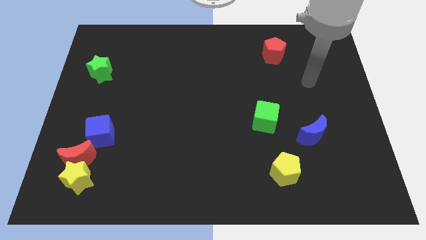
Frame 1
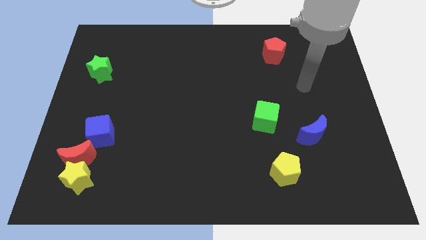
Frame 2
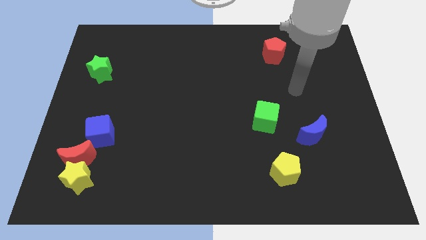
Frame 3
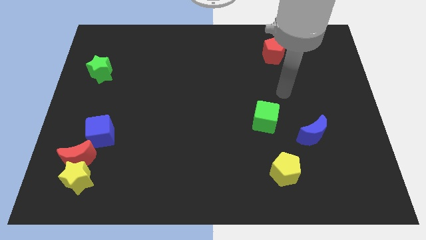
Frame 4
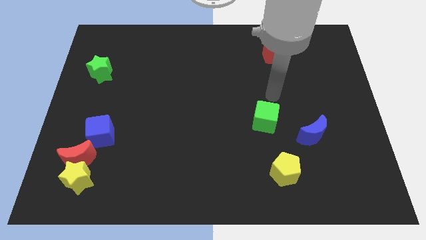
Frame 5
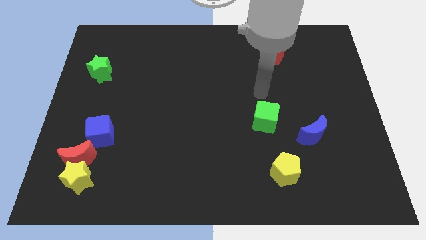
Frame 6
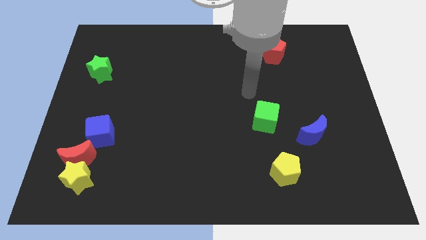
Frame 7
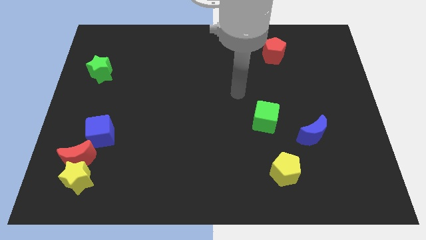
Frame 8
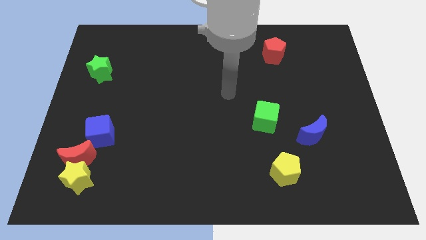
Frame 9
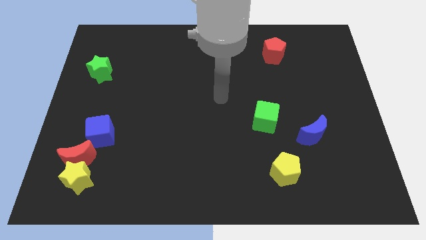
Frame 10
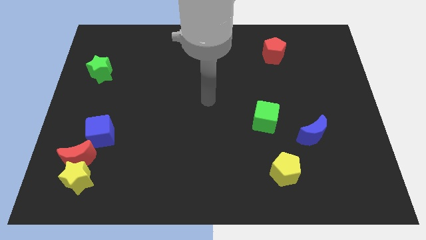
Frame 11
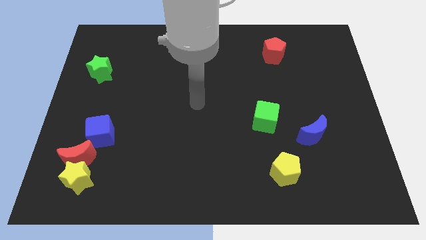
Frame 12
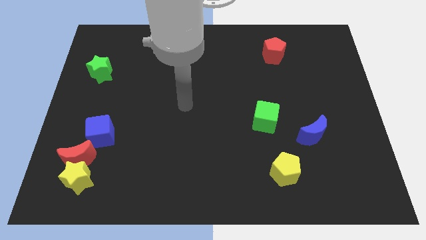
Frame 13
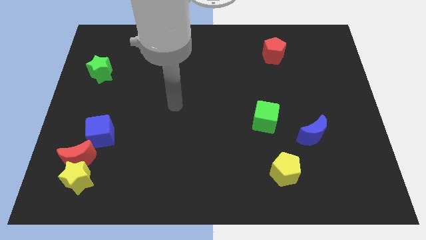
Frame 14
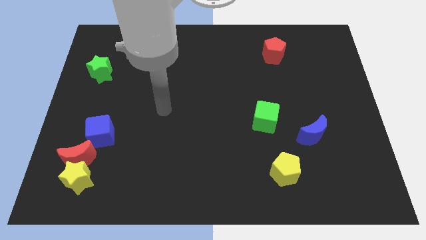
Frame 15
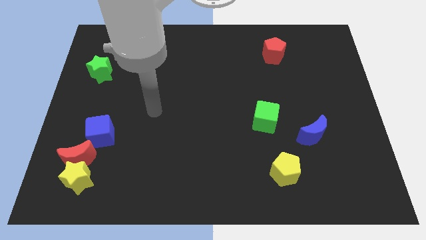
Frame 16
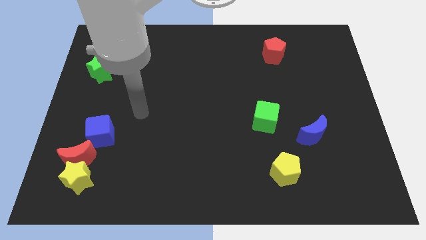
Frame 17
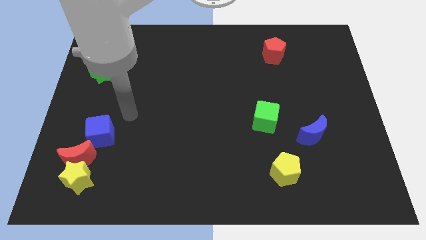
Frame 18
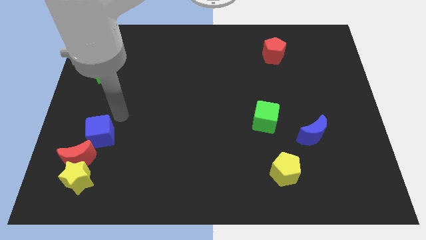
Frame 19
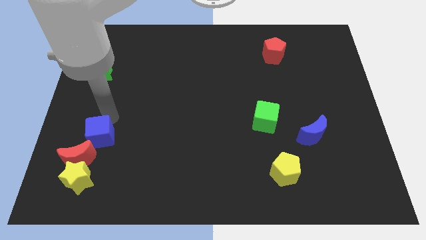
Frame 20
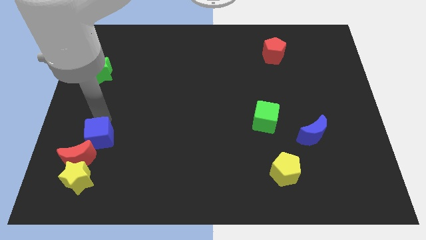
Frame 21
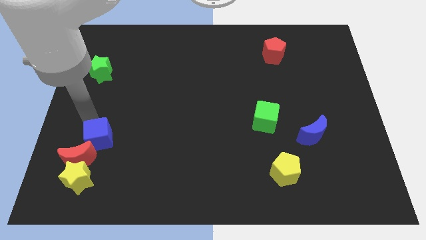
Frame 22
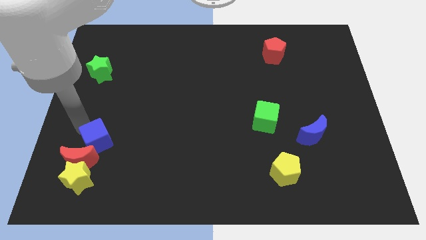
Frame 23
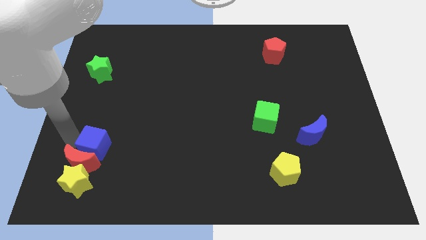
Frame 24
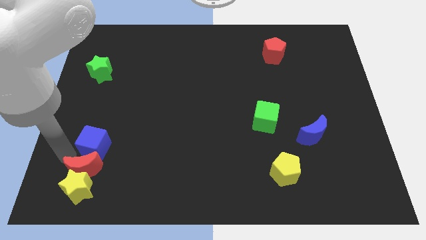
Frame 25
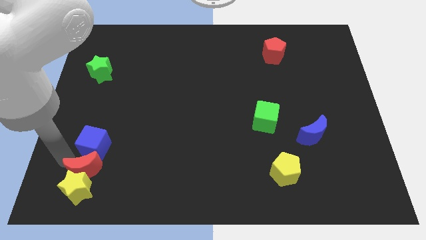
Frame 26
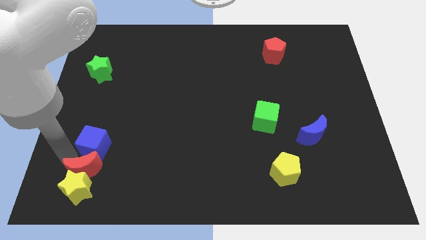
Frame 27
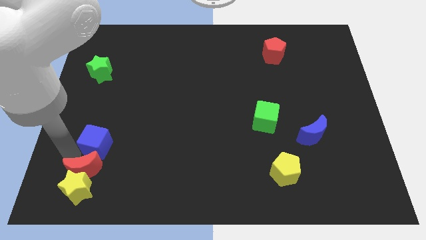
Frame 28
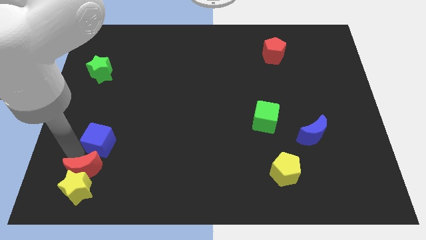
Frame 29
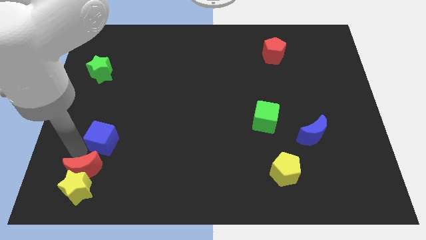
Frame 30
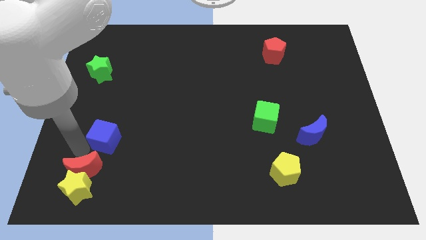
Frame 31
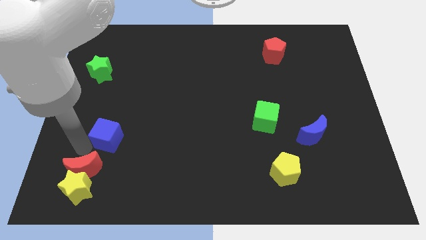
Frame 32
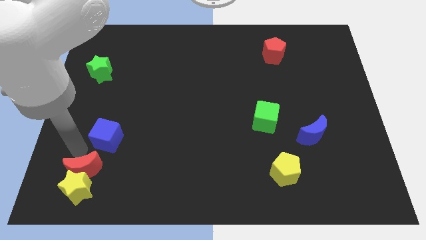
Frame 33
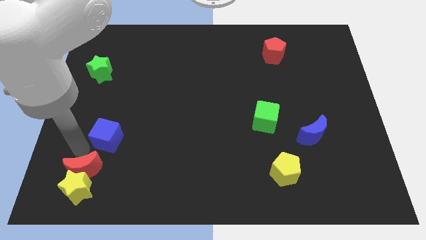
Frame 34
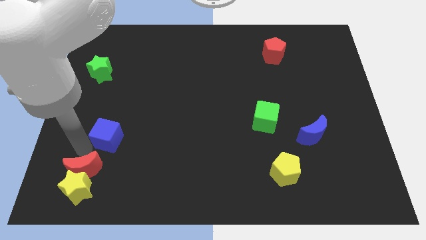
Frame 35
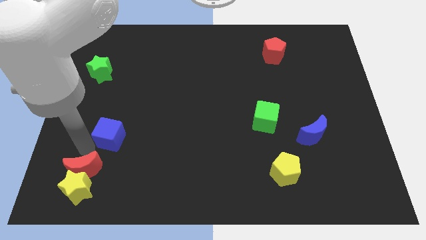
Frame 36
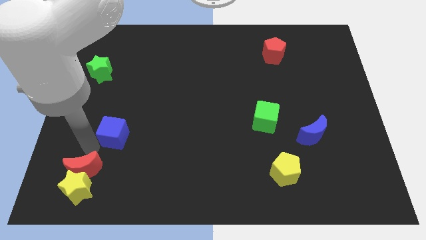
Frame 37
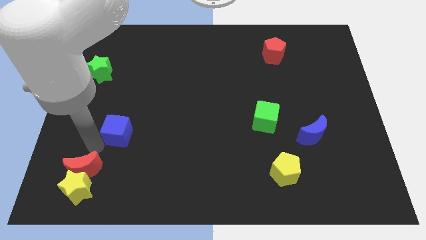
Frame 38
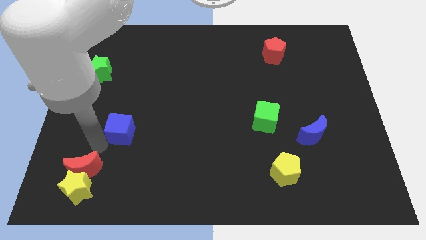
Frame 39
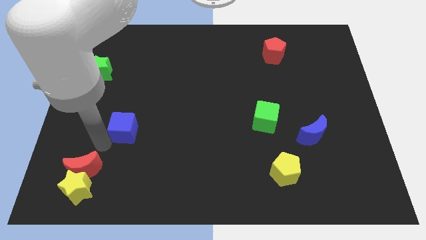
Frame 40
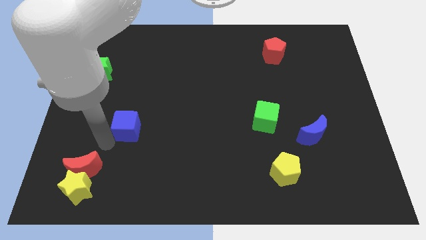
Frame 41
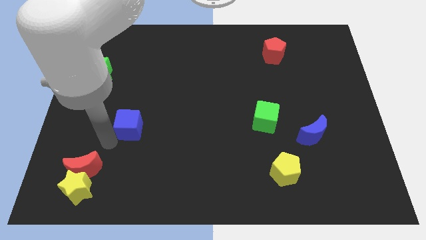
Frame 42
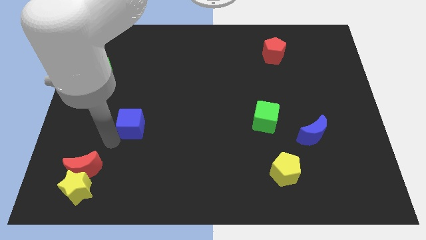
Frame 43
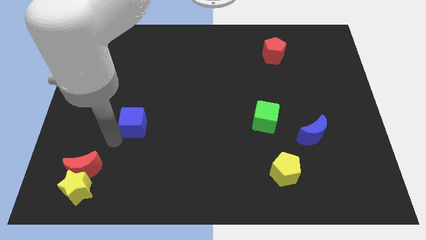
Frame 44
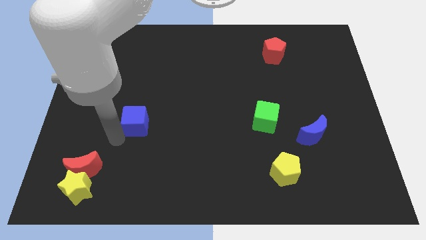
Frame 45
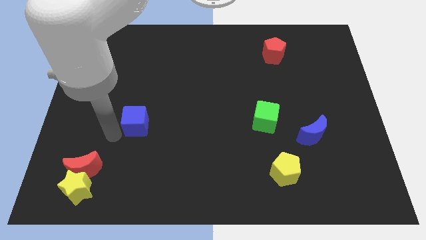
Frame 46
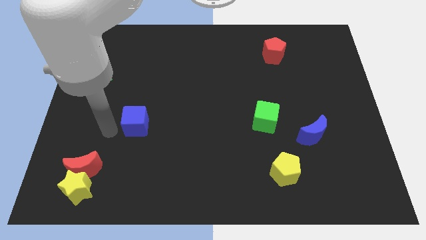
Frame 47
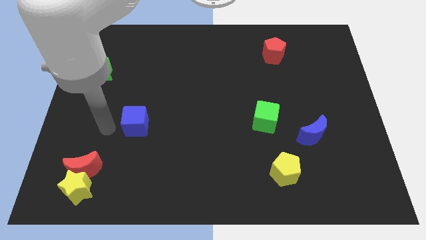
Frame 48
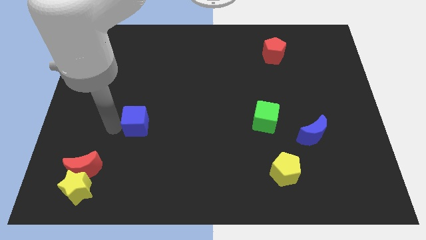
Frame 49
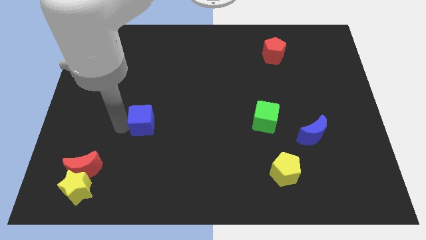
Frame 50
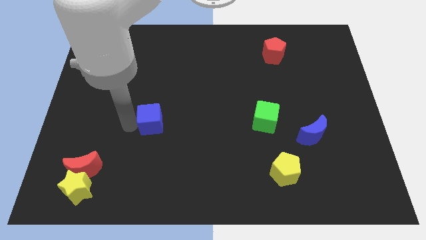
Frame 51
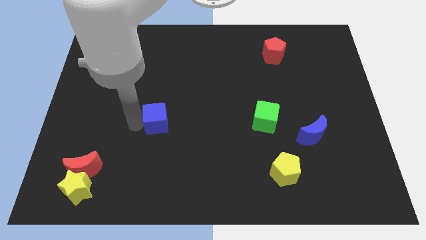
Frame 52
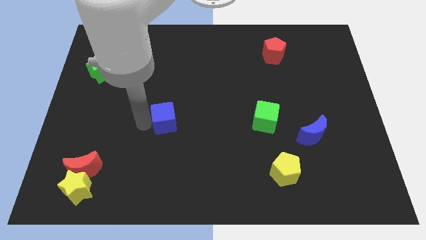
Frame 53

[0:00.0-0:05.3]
put the blue cube to the middle of the board

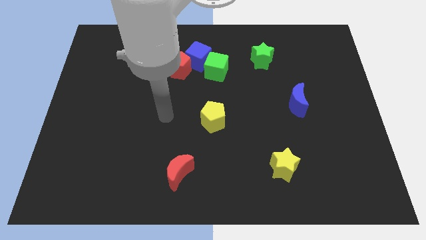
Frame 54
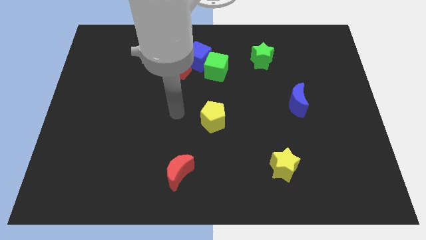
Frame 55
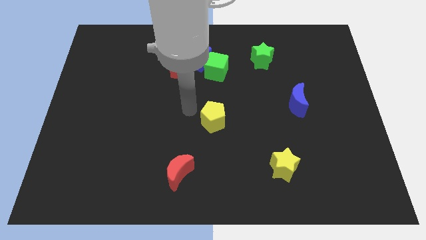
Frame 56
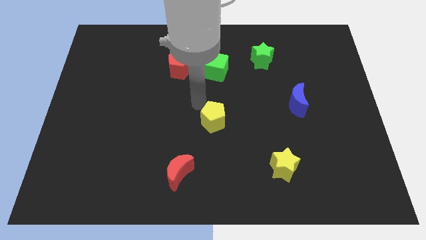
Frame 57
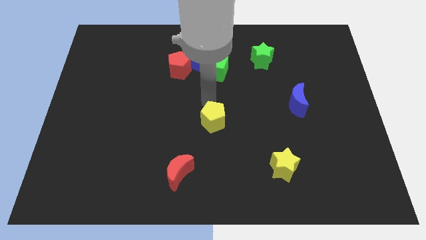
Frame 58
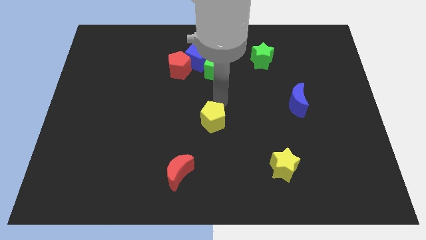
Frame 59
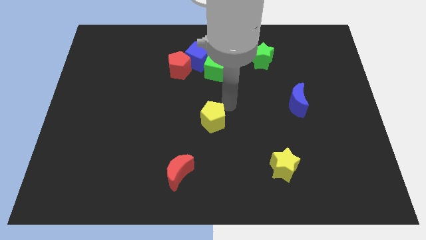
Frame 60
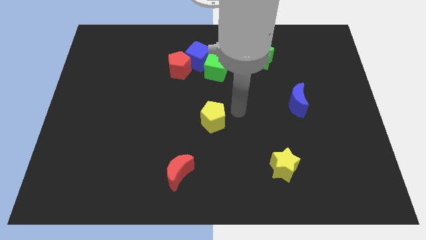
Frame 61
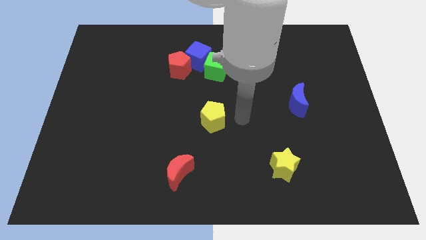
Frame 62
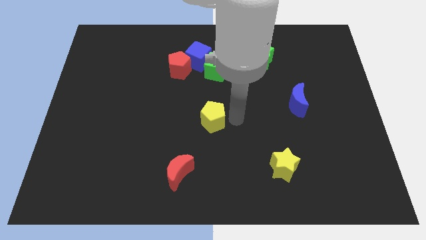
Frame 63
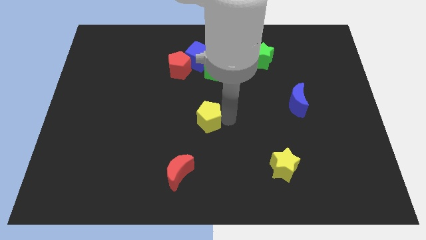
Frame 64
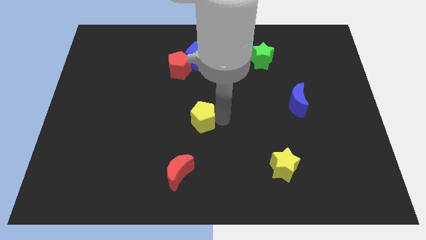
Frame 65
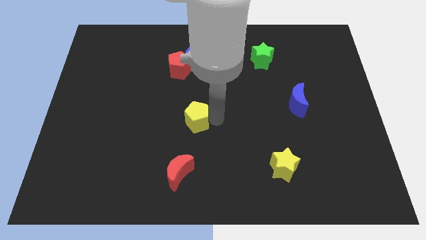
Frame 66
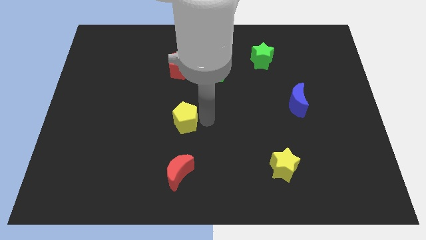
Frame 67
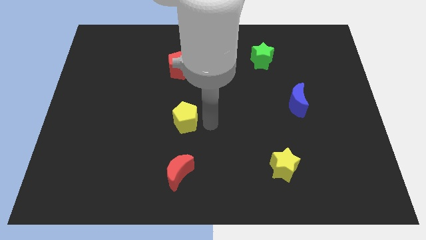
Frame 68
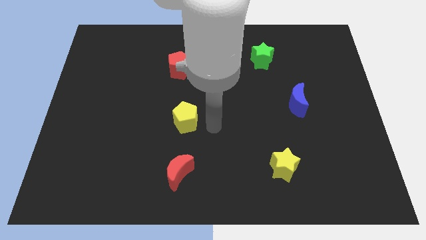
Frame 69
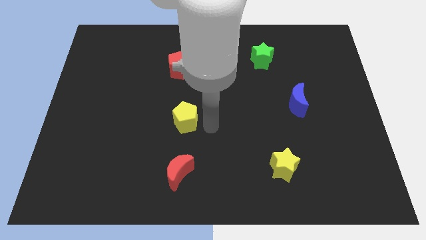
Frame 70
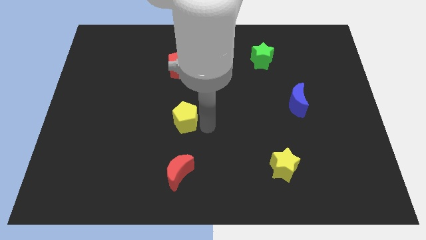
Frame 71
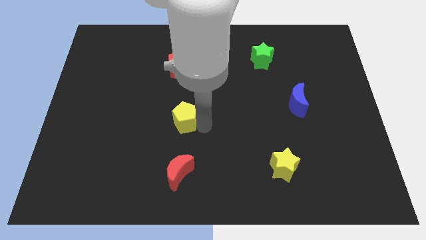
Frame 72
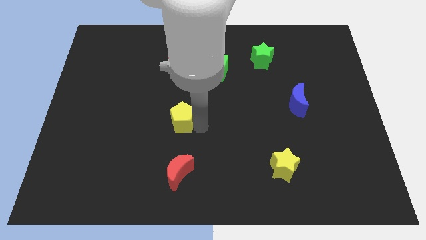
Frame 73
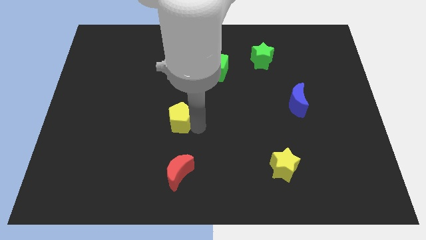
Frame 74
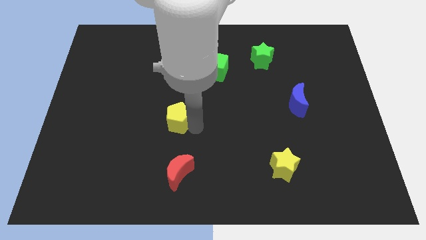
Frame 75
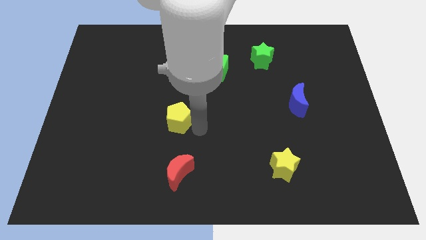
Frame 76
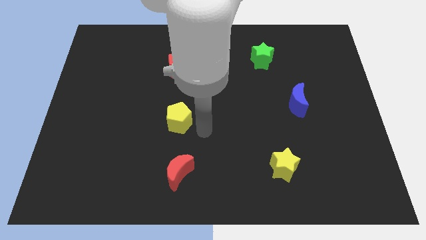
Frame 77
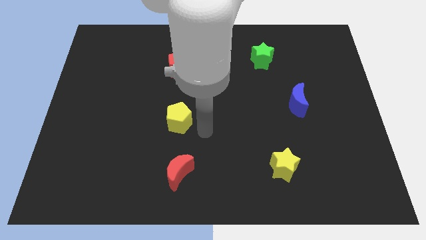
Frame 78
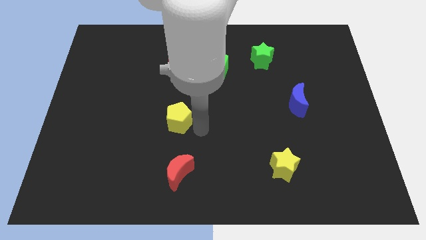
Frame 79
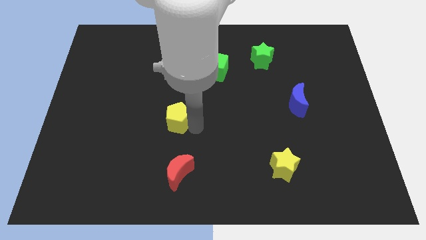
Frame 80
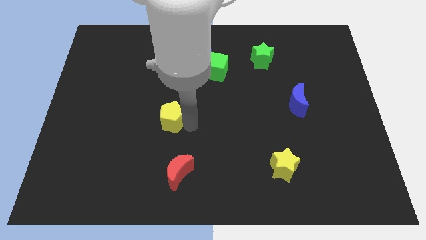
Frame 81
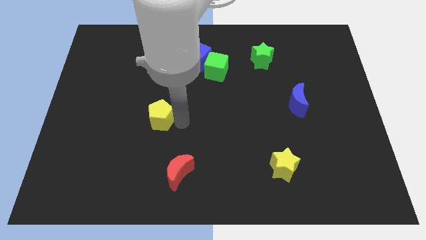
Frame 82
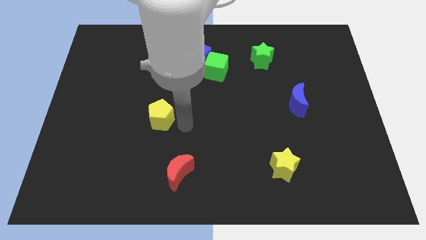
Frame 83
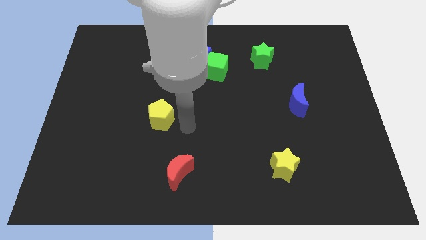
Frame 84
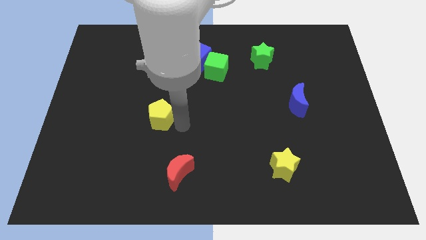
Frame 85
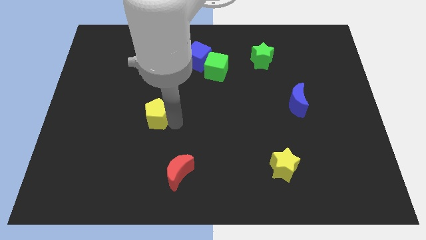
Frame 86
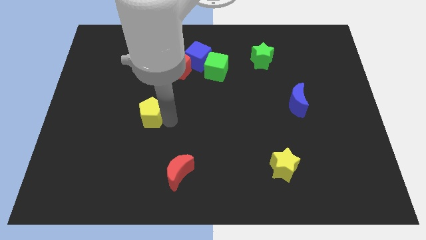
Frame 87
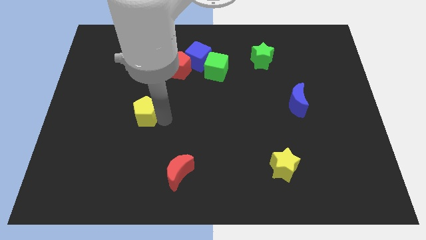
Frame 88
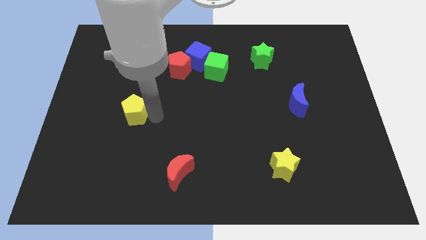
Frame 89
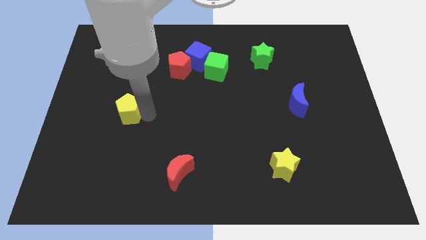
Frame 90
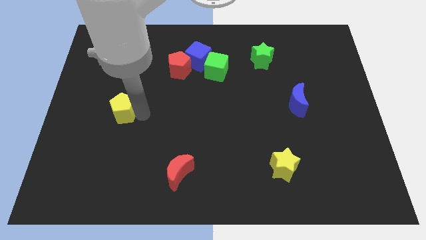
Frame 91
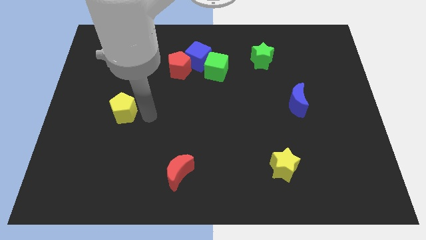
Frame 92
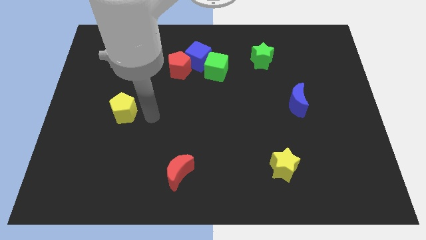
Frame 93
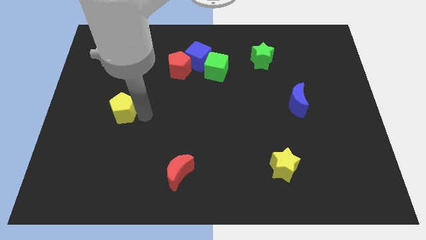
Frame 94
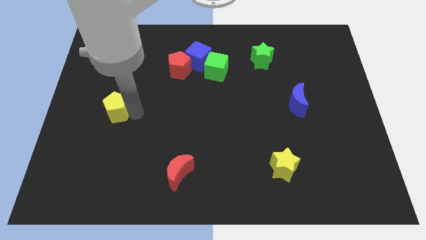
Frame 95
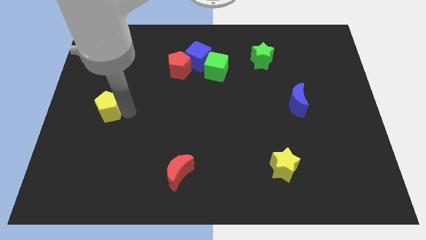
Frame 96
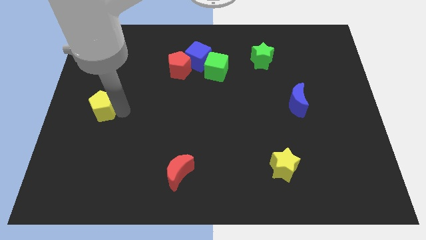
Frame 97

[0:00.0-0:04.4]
push the yellow pentagon to the left side
